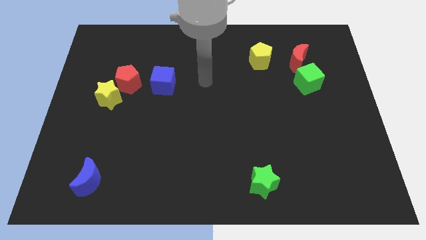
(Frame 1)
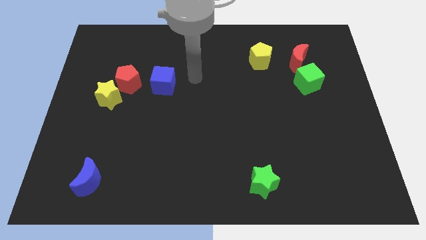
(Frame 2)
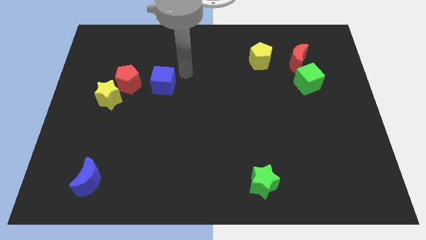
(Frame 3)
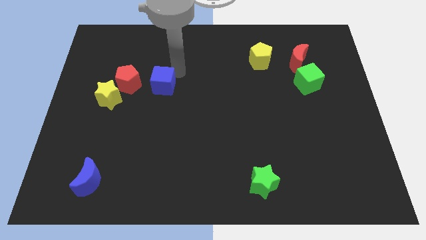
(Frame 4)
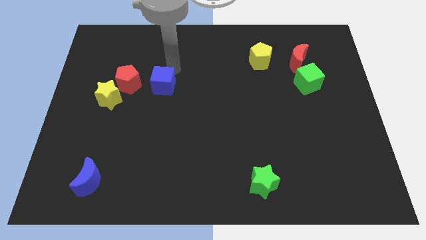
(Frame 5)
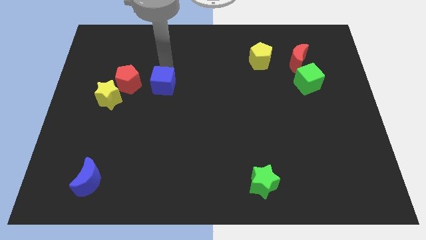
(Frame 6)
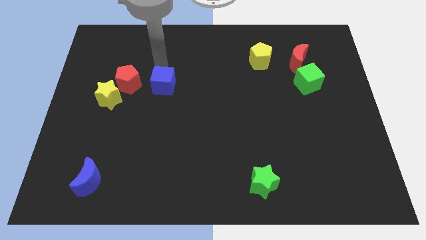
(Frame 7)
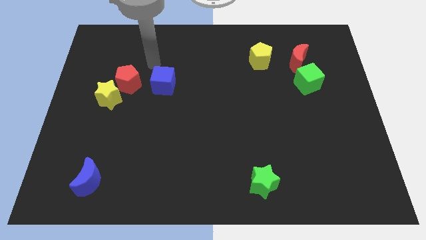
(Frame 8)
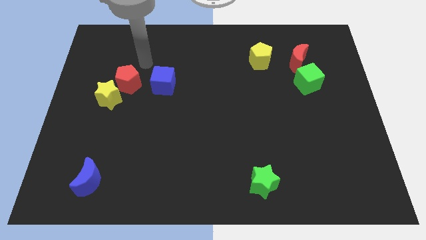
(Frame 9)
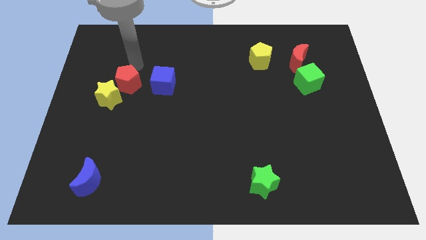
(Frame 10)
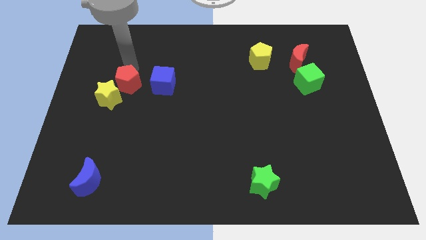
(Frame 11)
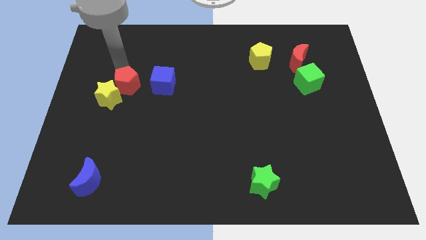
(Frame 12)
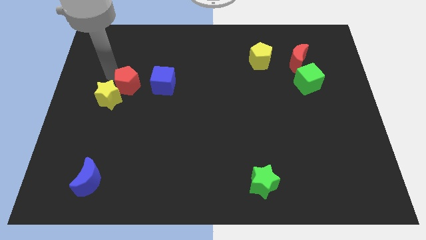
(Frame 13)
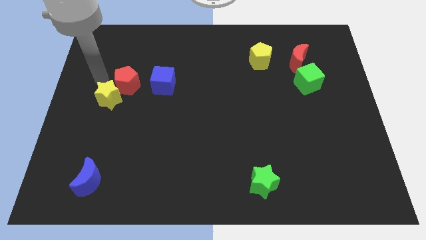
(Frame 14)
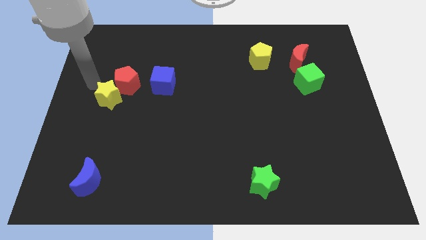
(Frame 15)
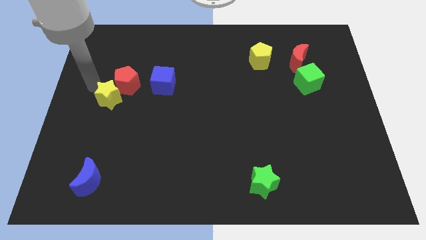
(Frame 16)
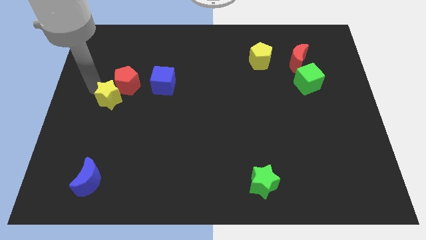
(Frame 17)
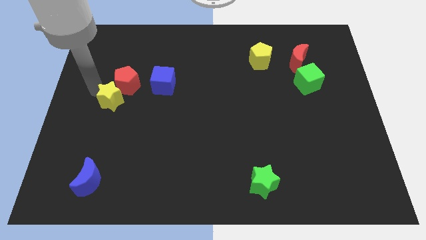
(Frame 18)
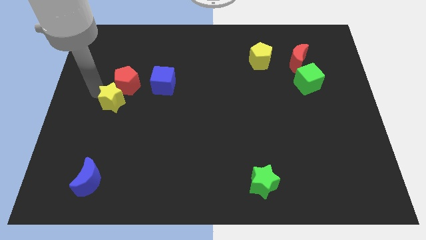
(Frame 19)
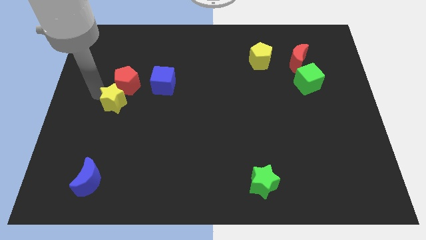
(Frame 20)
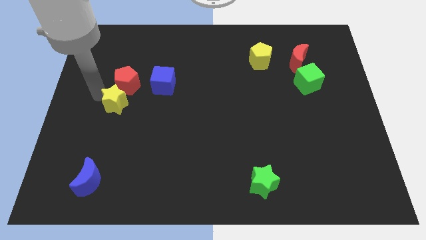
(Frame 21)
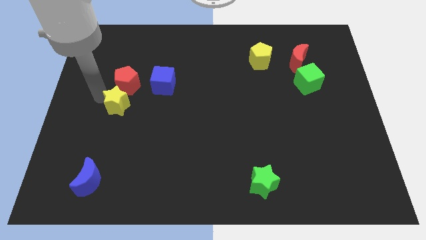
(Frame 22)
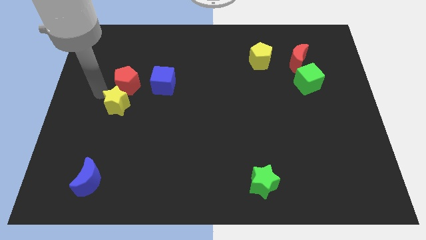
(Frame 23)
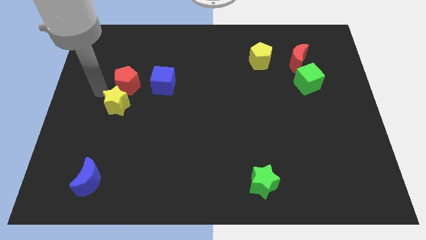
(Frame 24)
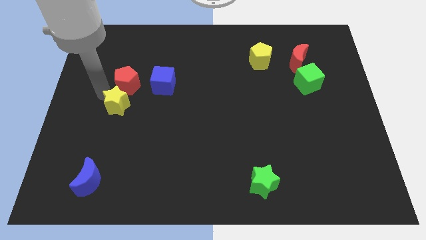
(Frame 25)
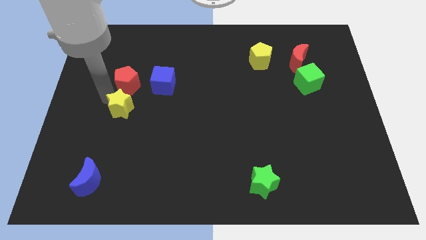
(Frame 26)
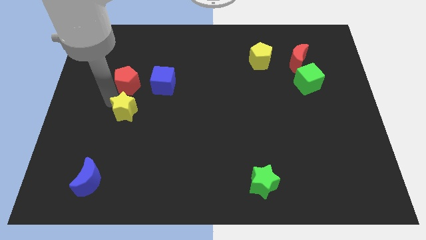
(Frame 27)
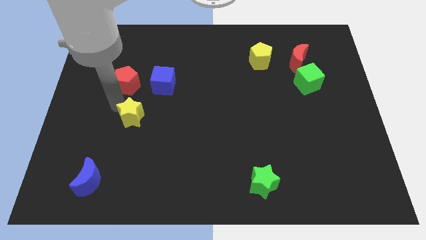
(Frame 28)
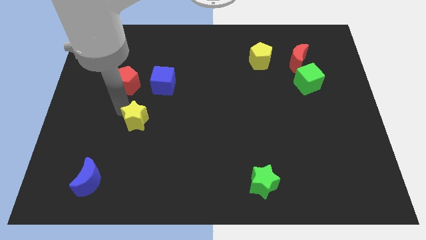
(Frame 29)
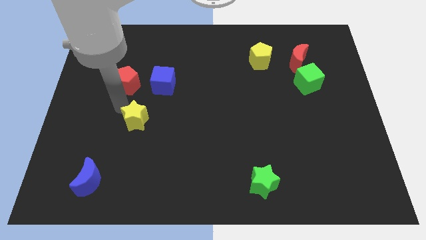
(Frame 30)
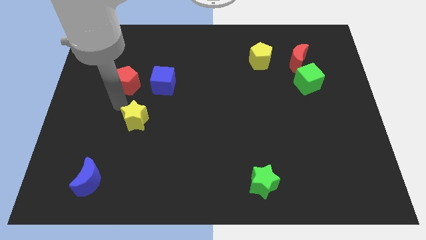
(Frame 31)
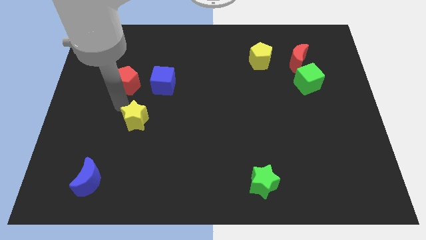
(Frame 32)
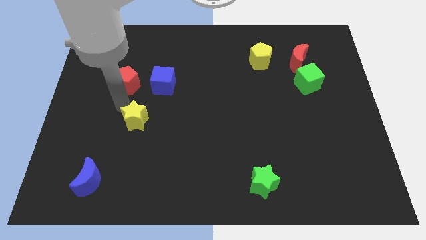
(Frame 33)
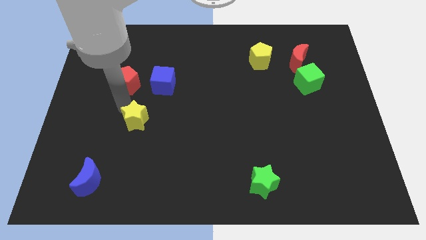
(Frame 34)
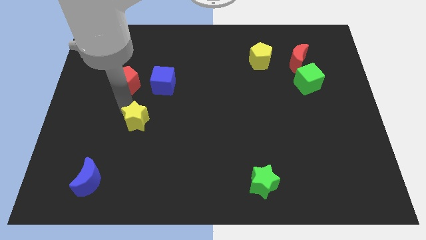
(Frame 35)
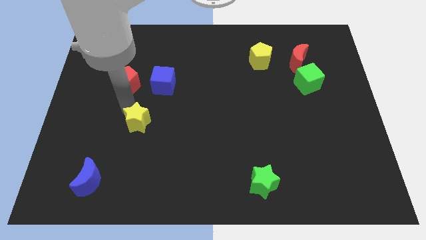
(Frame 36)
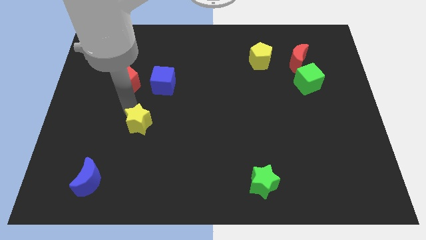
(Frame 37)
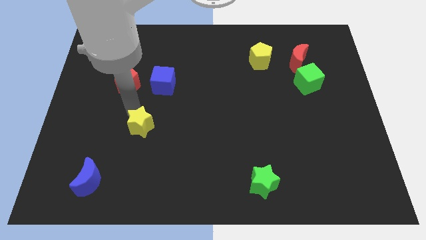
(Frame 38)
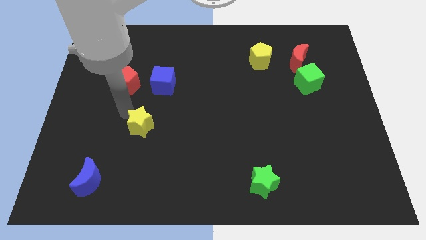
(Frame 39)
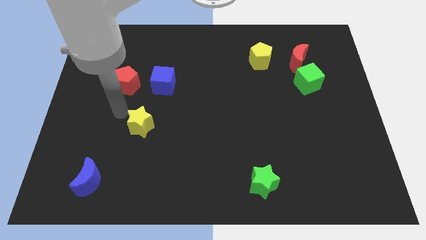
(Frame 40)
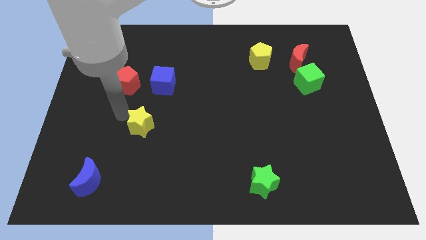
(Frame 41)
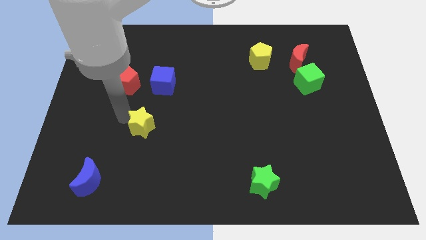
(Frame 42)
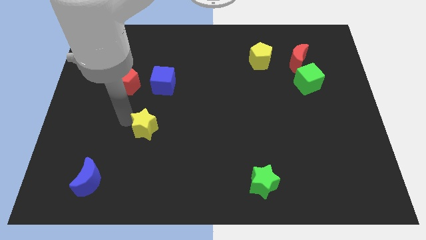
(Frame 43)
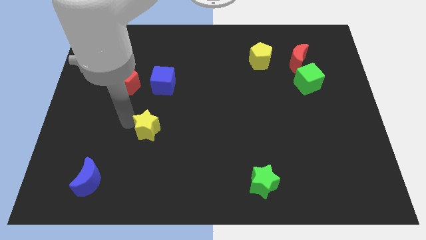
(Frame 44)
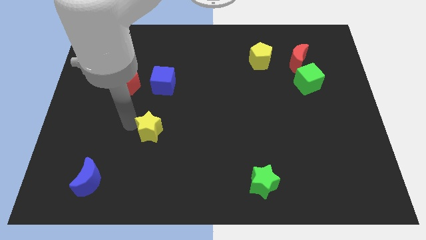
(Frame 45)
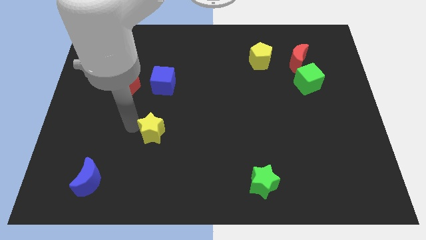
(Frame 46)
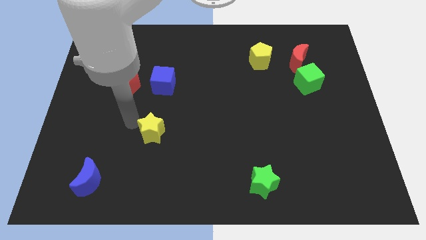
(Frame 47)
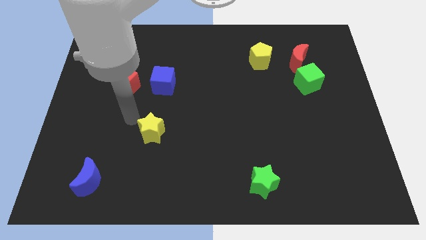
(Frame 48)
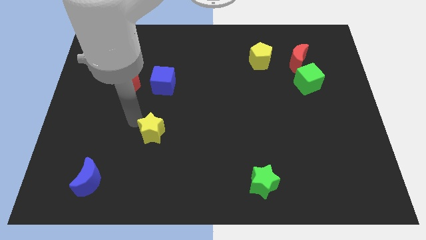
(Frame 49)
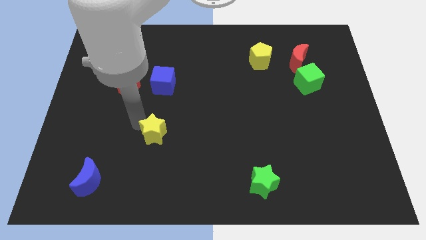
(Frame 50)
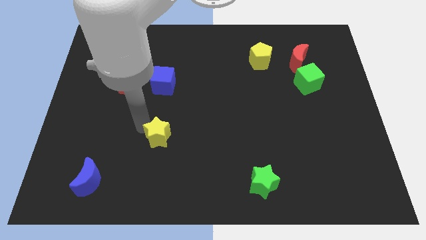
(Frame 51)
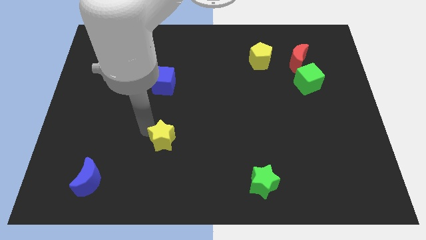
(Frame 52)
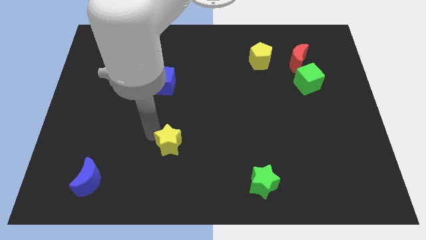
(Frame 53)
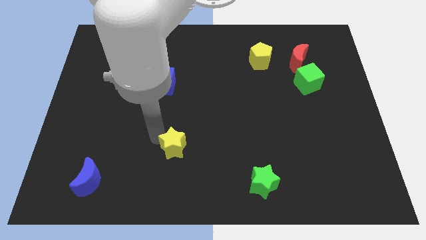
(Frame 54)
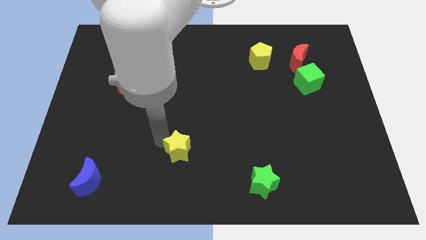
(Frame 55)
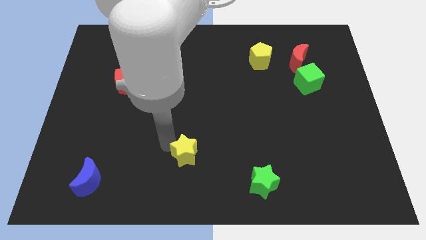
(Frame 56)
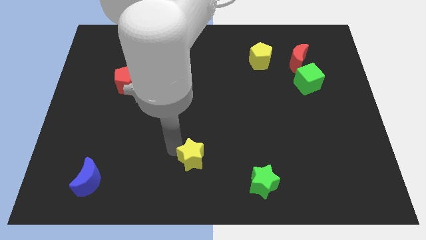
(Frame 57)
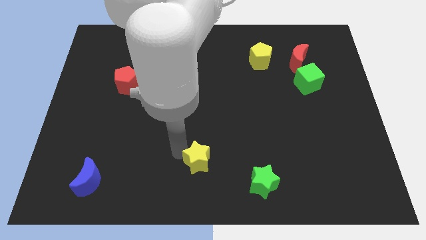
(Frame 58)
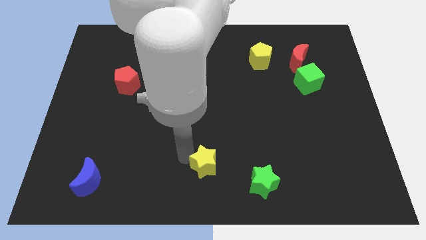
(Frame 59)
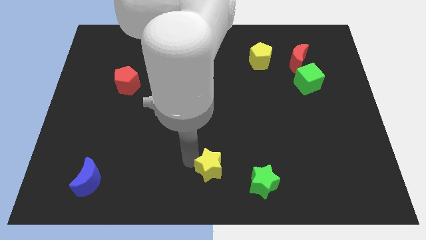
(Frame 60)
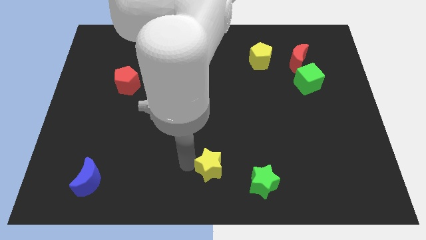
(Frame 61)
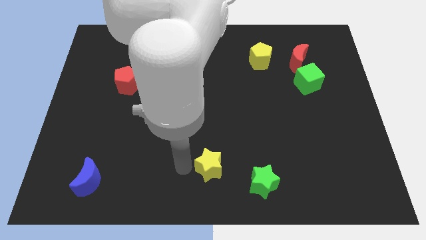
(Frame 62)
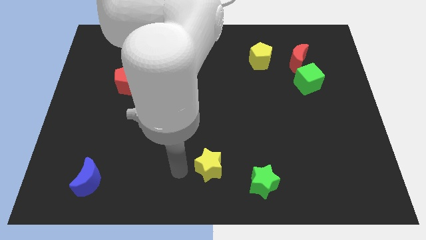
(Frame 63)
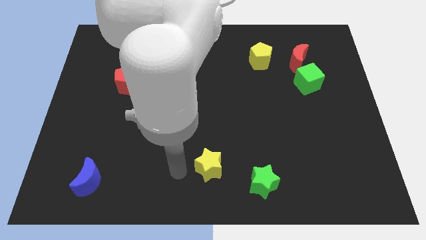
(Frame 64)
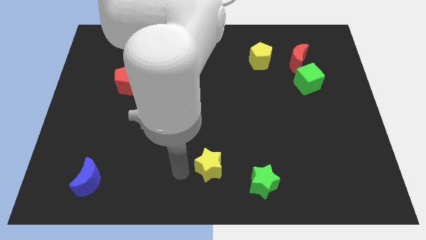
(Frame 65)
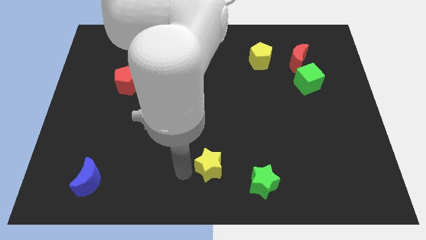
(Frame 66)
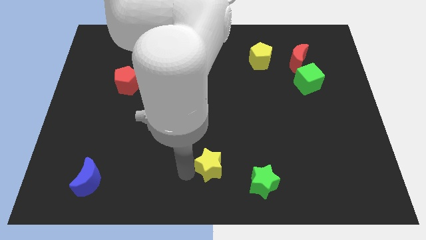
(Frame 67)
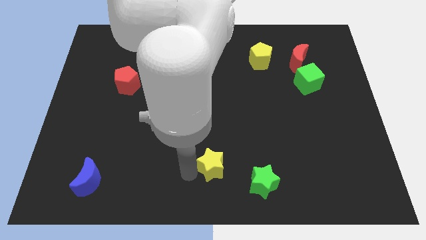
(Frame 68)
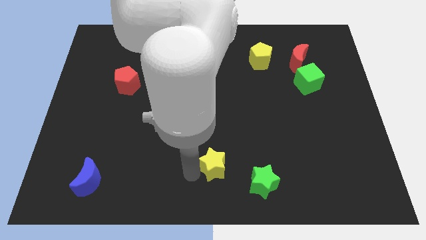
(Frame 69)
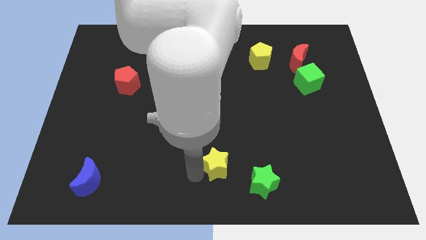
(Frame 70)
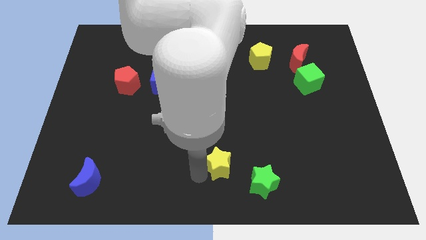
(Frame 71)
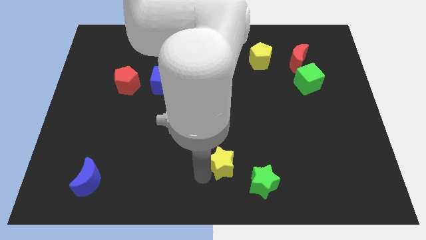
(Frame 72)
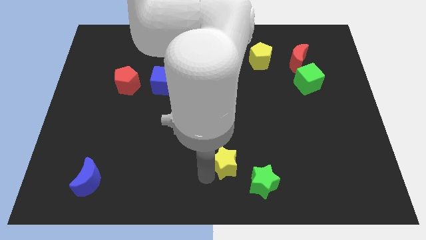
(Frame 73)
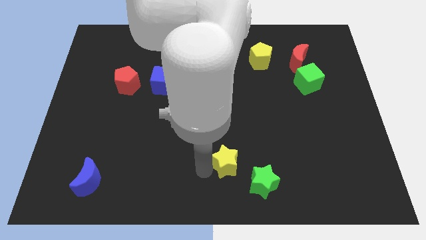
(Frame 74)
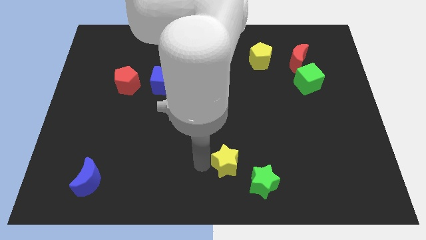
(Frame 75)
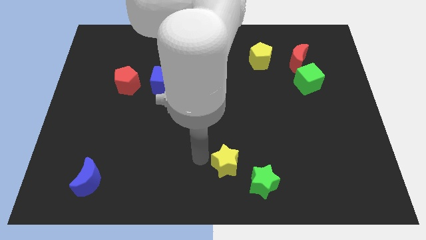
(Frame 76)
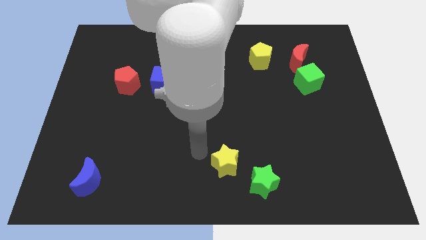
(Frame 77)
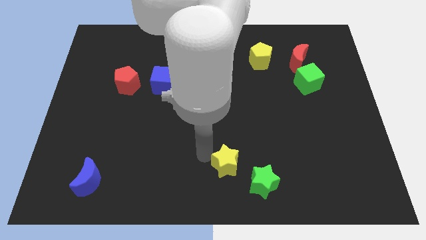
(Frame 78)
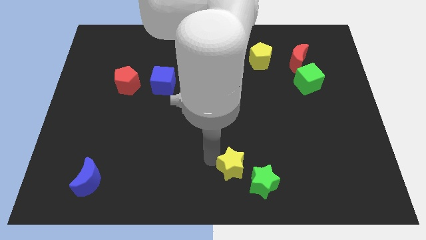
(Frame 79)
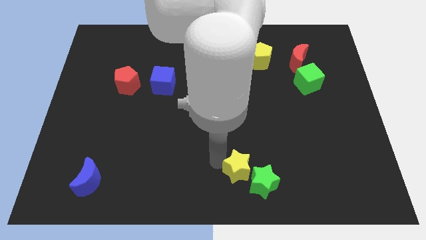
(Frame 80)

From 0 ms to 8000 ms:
move the yellow star close to the green star
